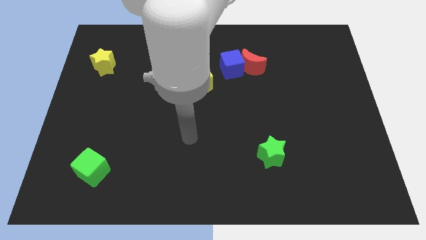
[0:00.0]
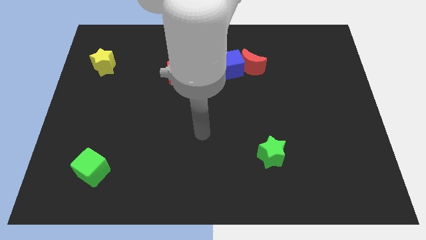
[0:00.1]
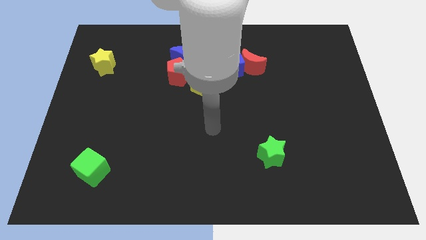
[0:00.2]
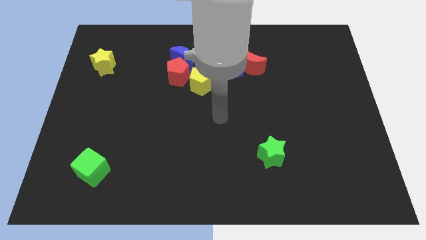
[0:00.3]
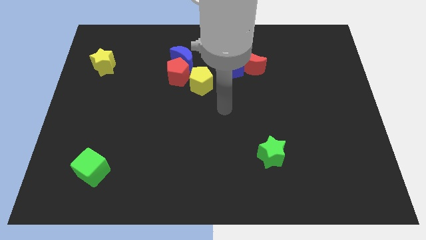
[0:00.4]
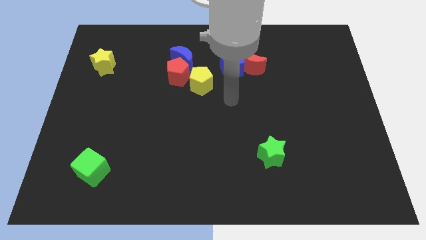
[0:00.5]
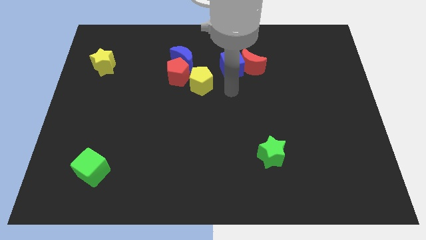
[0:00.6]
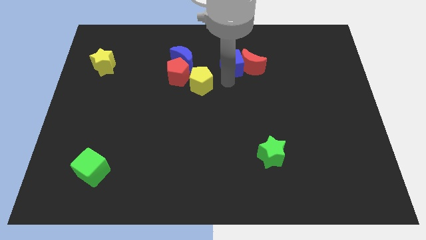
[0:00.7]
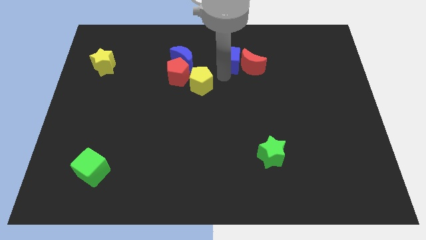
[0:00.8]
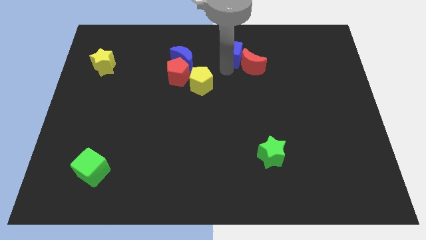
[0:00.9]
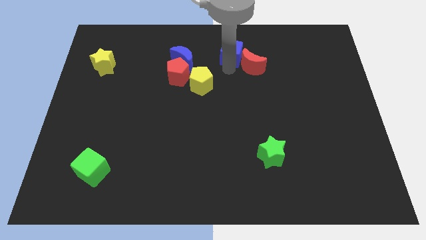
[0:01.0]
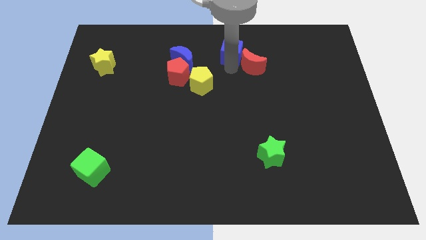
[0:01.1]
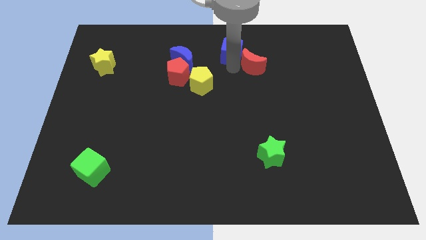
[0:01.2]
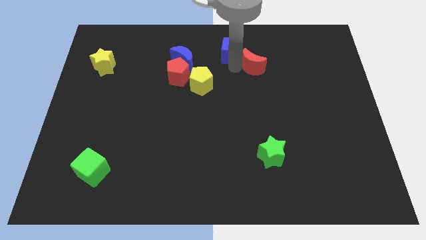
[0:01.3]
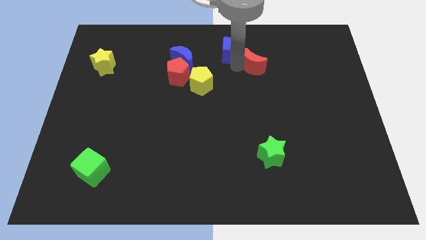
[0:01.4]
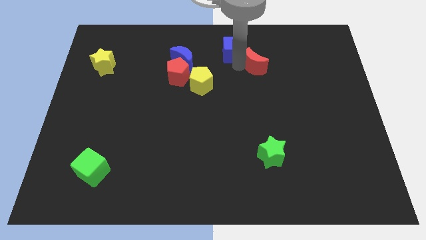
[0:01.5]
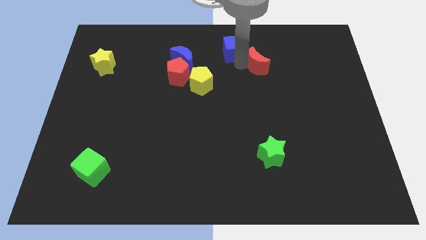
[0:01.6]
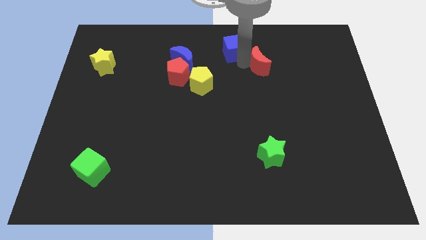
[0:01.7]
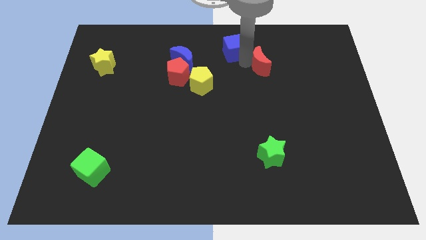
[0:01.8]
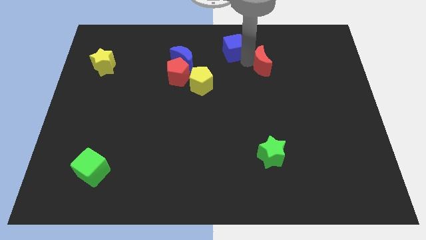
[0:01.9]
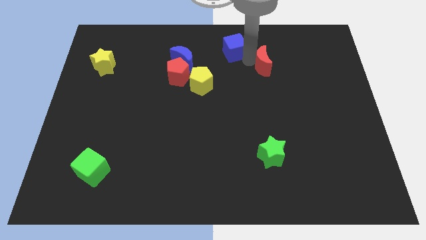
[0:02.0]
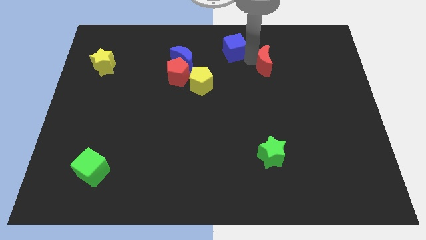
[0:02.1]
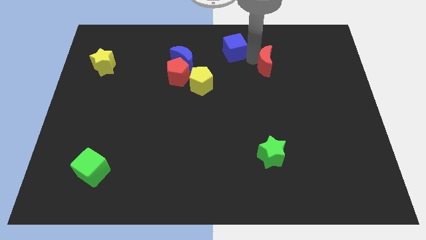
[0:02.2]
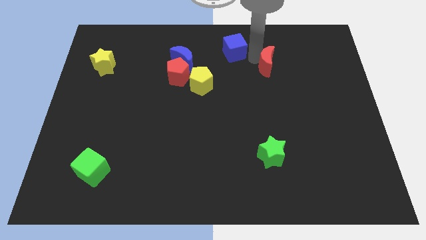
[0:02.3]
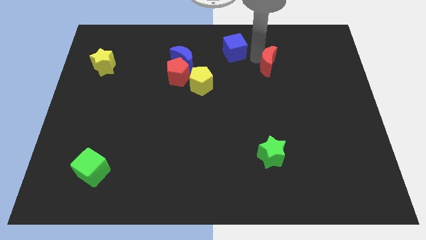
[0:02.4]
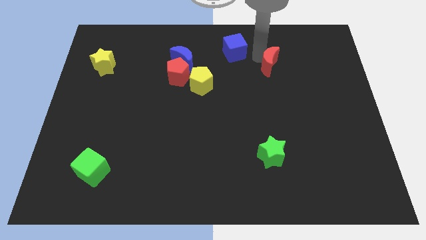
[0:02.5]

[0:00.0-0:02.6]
move the red moon away from the blue cube

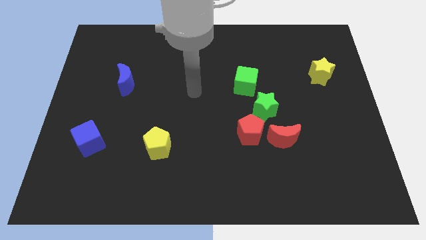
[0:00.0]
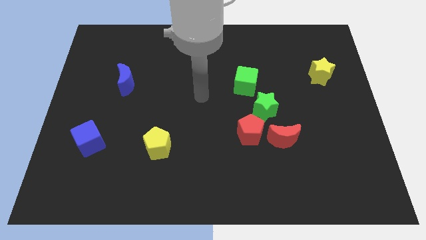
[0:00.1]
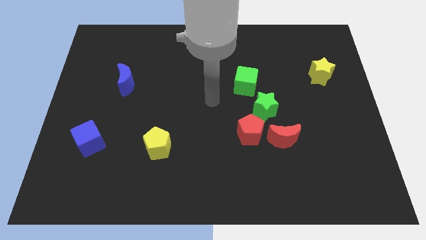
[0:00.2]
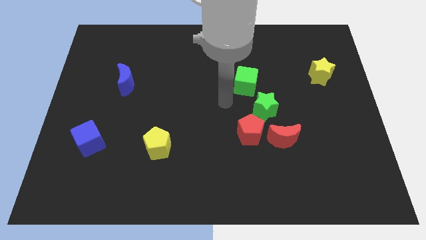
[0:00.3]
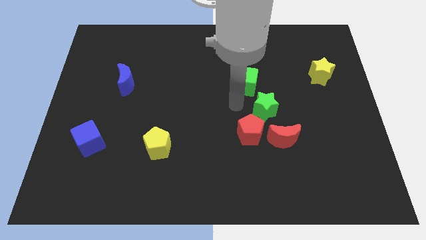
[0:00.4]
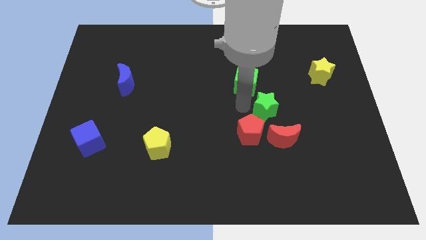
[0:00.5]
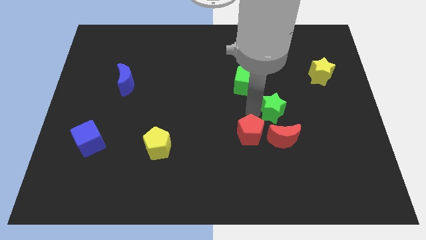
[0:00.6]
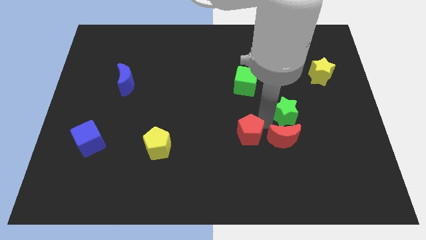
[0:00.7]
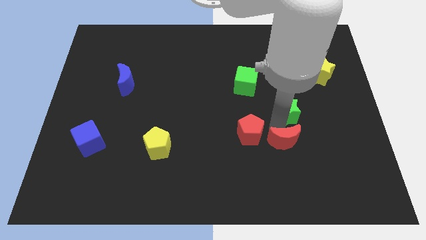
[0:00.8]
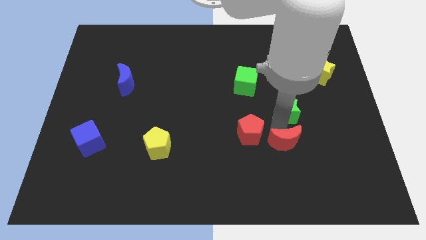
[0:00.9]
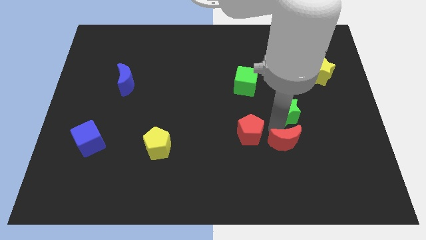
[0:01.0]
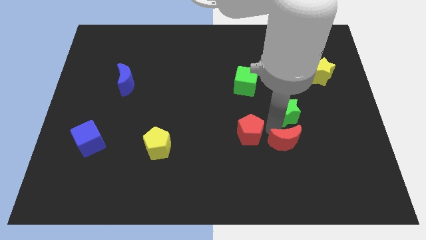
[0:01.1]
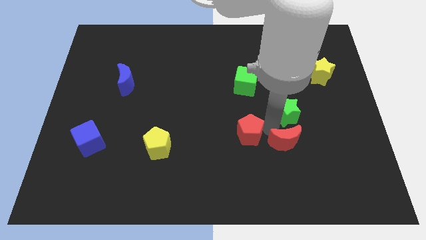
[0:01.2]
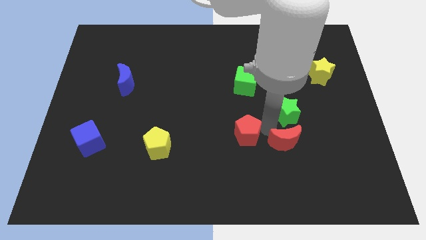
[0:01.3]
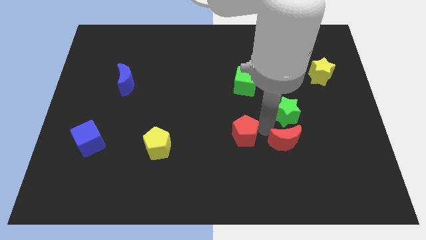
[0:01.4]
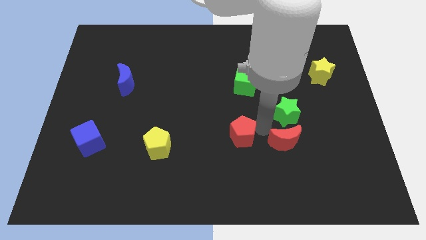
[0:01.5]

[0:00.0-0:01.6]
pull the red pentagon apart from the red moon and green star

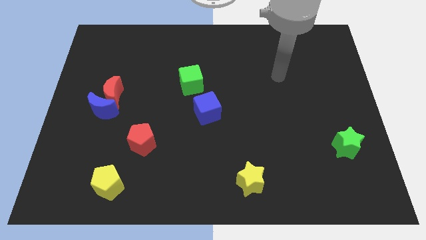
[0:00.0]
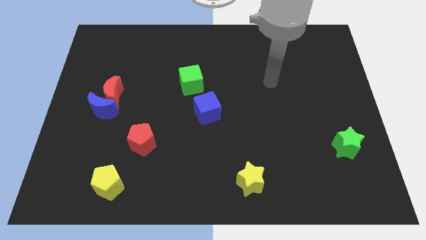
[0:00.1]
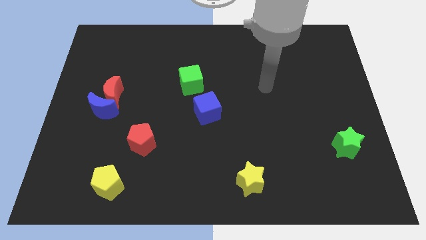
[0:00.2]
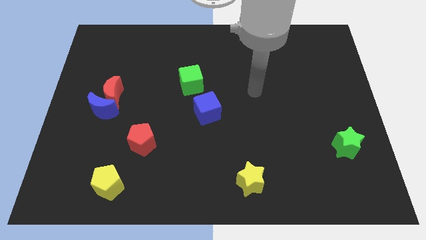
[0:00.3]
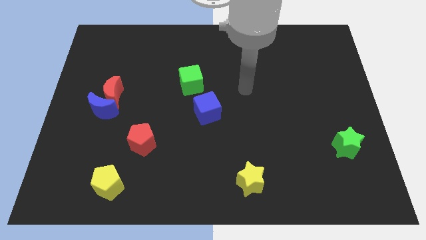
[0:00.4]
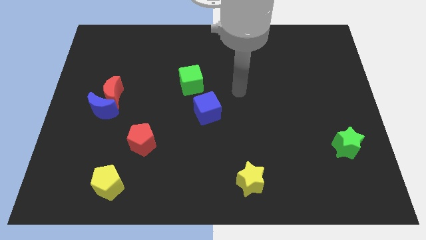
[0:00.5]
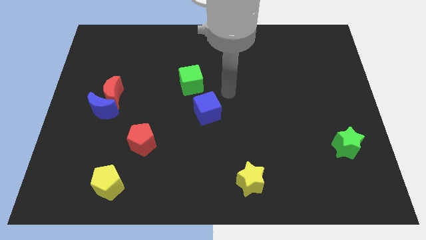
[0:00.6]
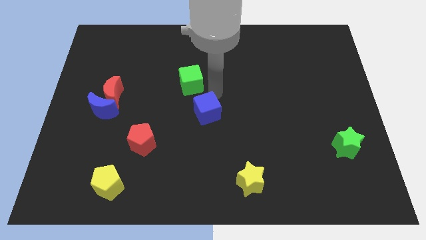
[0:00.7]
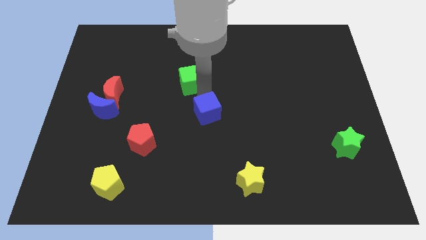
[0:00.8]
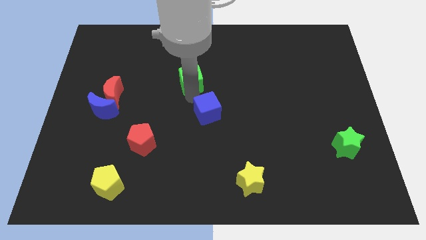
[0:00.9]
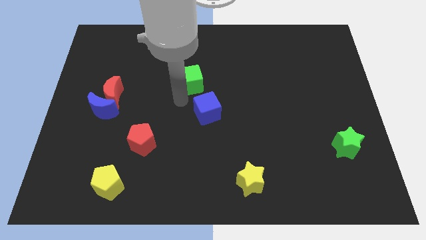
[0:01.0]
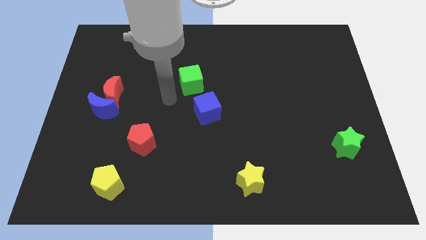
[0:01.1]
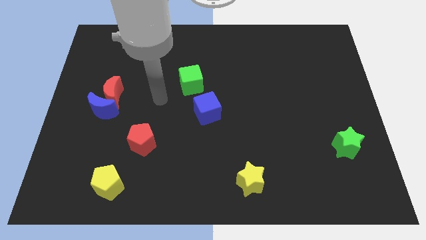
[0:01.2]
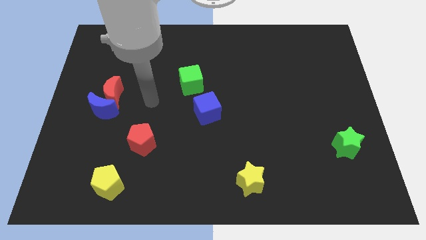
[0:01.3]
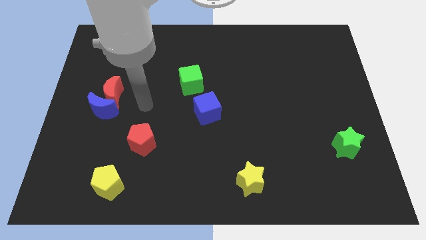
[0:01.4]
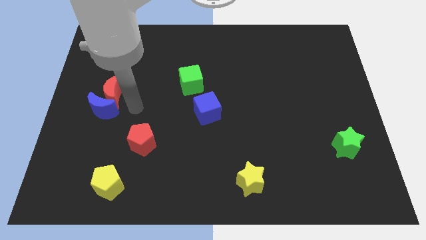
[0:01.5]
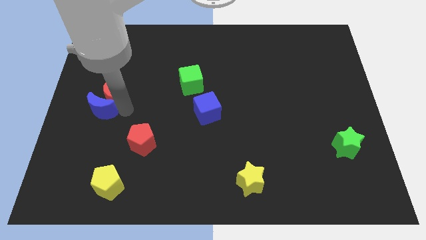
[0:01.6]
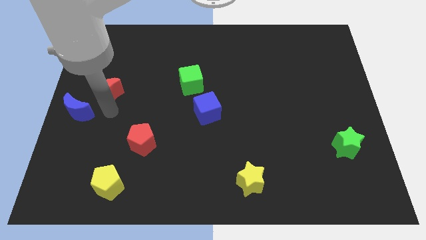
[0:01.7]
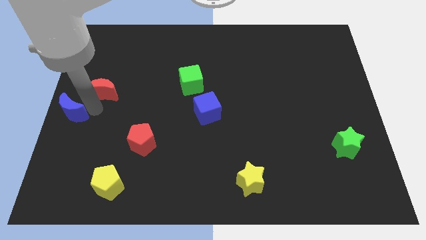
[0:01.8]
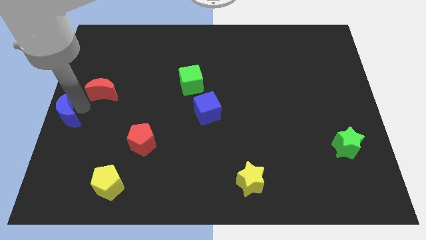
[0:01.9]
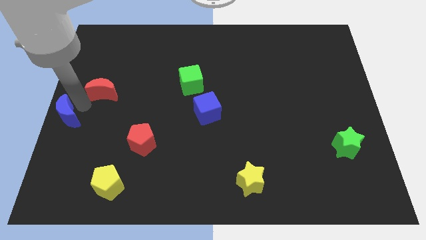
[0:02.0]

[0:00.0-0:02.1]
separate the red moon from the blue moon

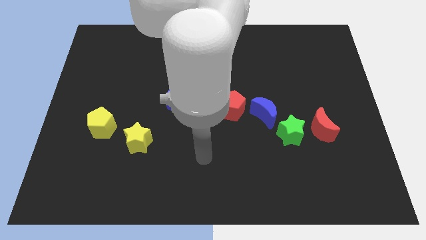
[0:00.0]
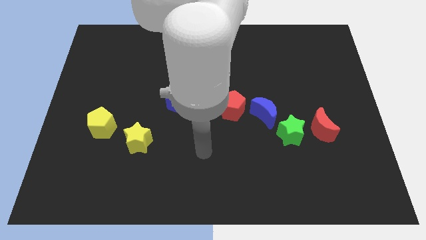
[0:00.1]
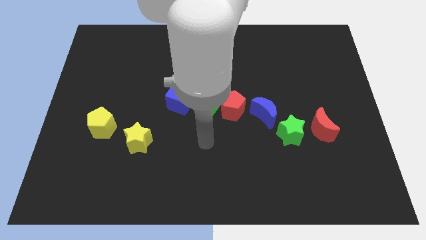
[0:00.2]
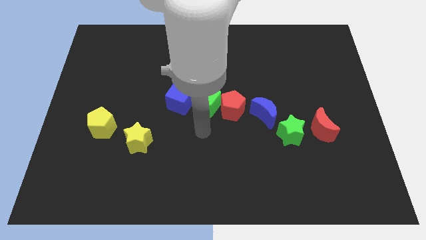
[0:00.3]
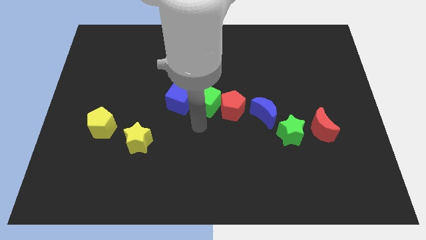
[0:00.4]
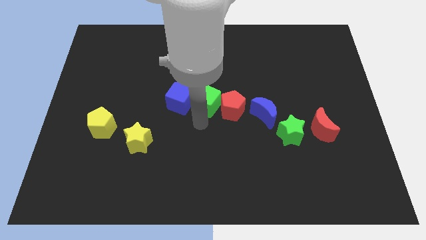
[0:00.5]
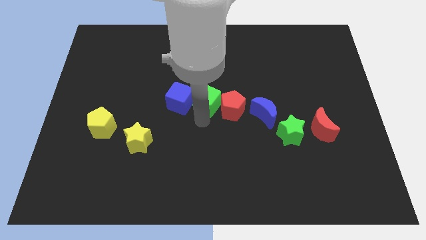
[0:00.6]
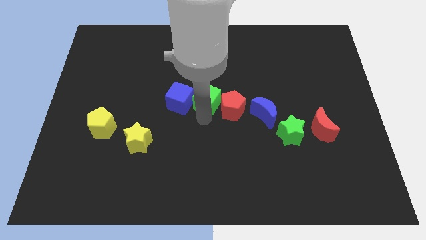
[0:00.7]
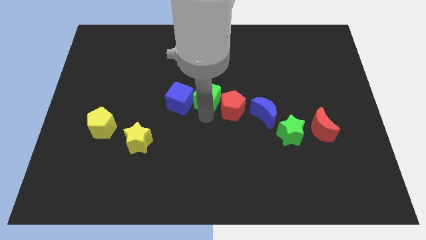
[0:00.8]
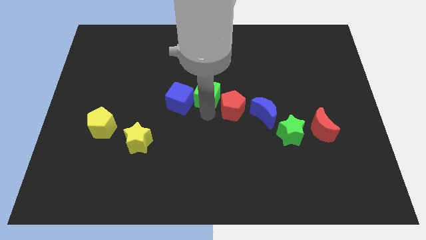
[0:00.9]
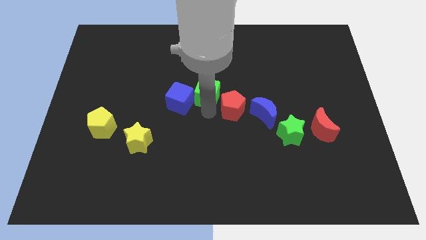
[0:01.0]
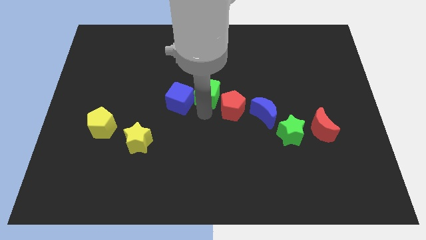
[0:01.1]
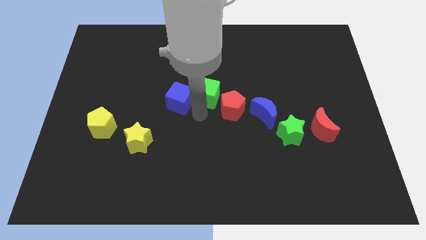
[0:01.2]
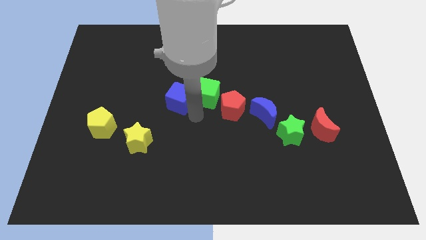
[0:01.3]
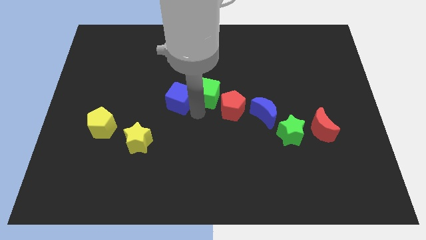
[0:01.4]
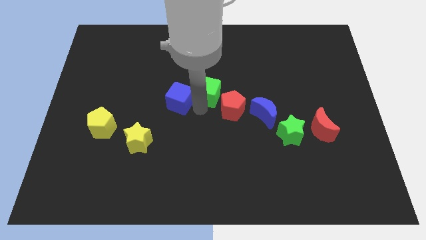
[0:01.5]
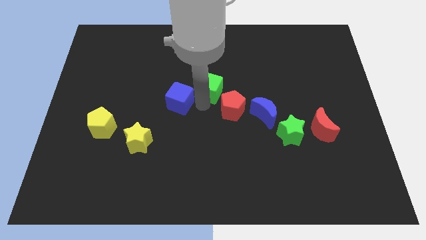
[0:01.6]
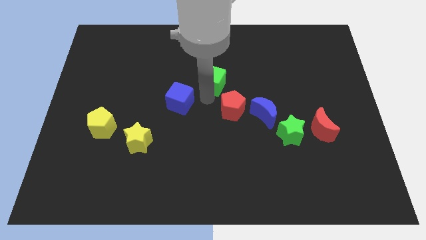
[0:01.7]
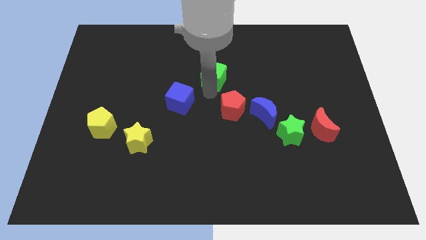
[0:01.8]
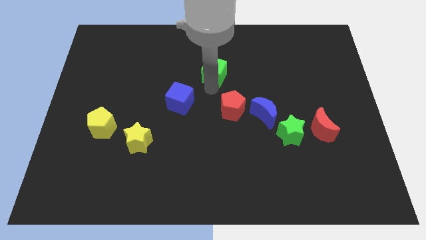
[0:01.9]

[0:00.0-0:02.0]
pull the green cube apart from the red pentagon and blue cube

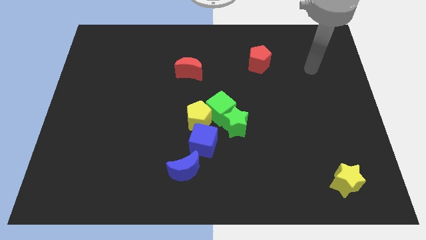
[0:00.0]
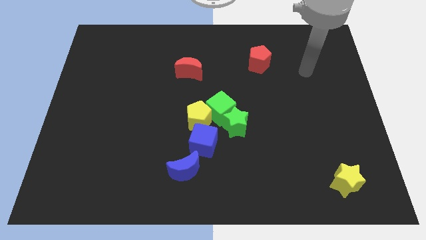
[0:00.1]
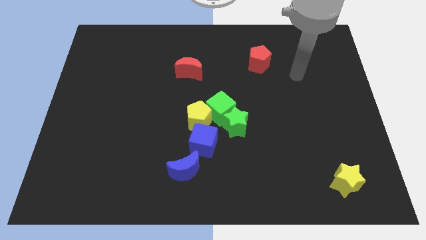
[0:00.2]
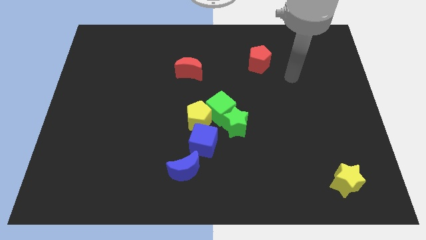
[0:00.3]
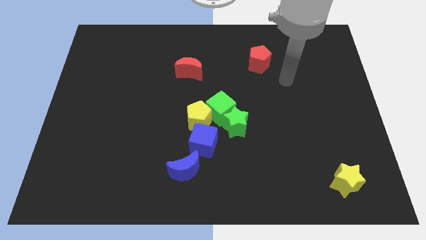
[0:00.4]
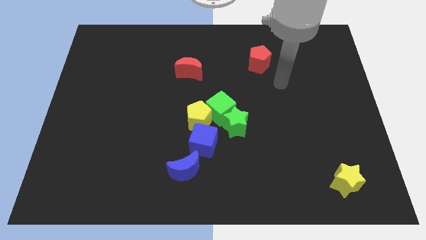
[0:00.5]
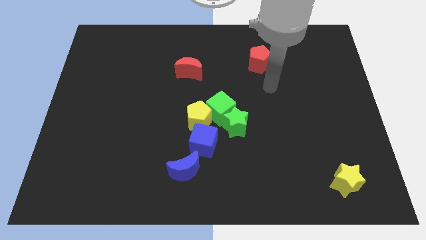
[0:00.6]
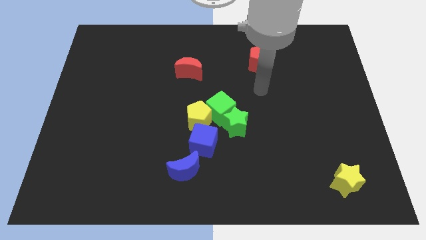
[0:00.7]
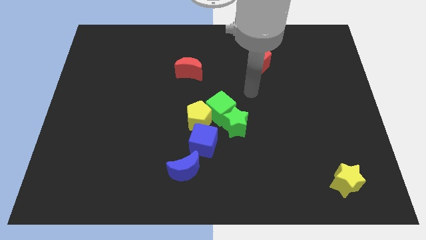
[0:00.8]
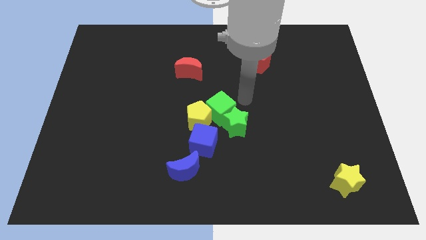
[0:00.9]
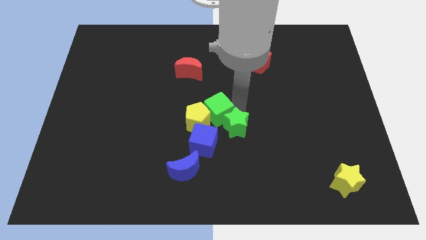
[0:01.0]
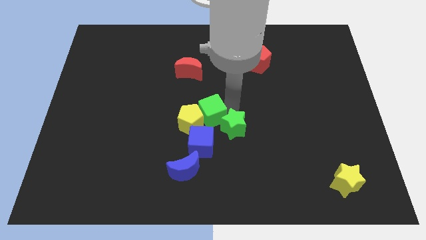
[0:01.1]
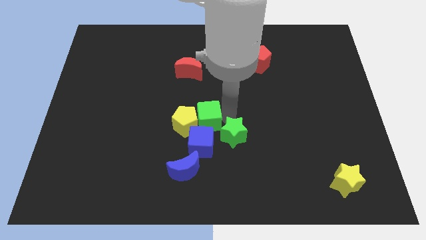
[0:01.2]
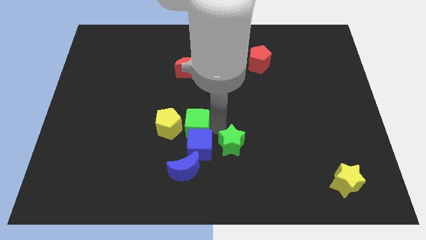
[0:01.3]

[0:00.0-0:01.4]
separate the yellow pentagon from the clump
